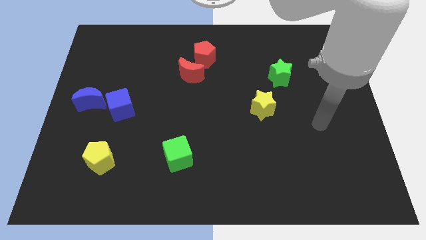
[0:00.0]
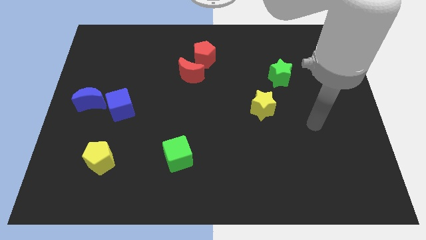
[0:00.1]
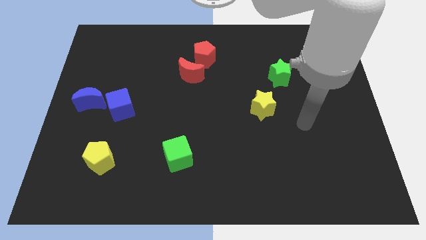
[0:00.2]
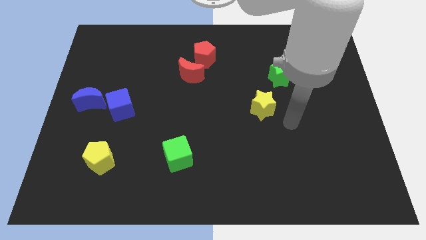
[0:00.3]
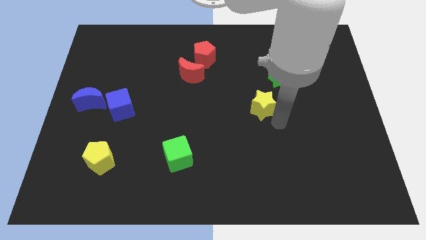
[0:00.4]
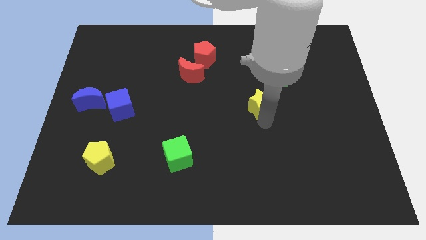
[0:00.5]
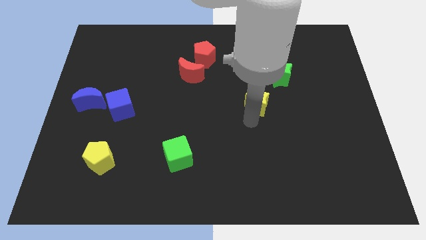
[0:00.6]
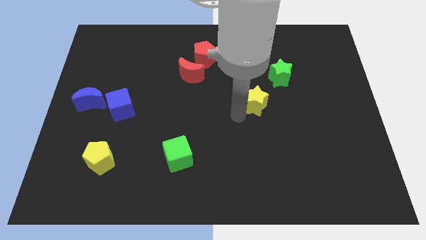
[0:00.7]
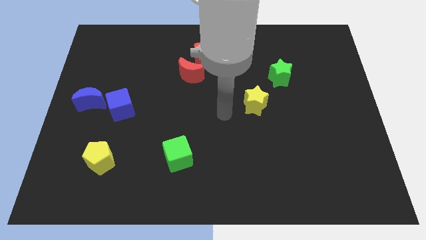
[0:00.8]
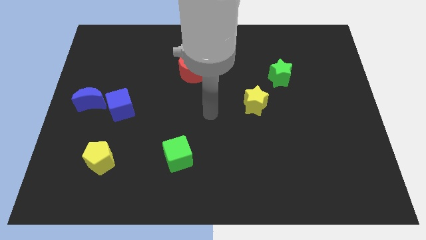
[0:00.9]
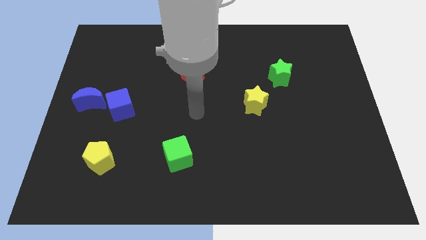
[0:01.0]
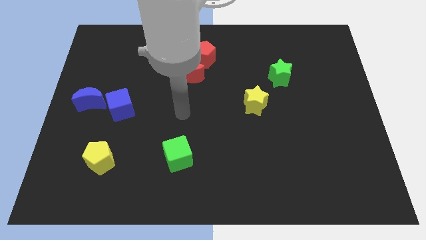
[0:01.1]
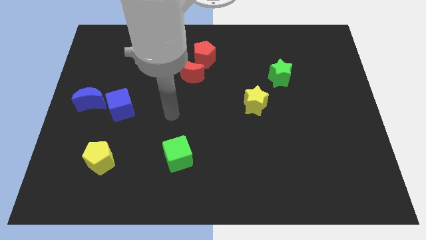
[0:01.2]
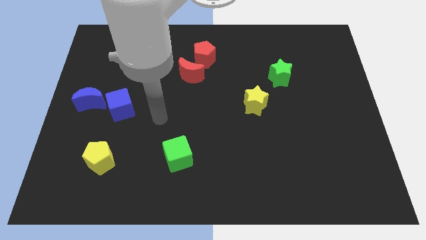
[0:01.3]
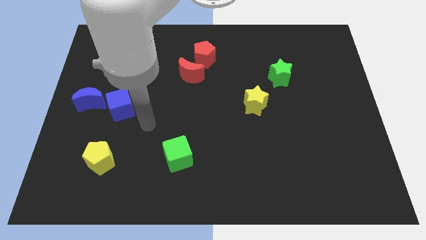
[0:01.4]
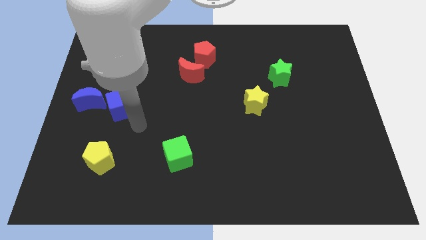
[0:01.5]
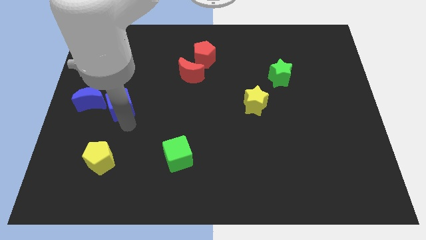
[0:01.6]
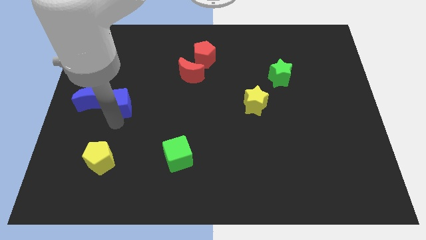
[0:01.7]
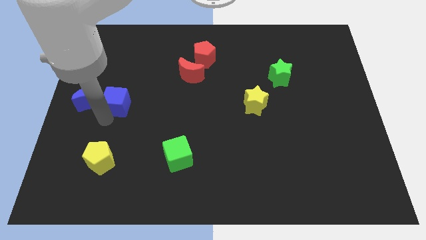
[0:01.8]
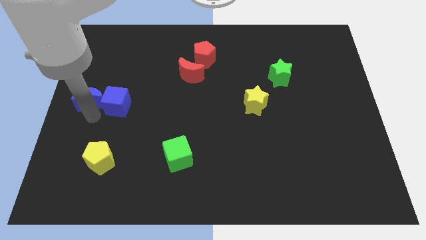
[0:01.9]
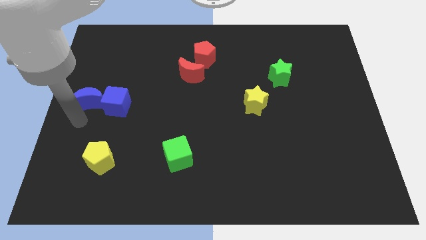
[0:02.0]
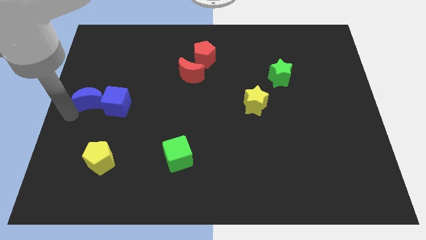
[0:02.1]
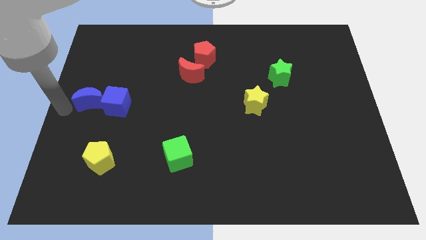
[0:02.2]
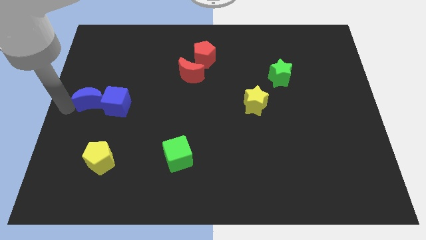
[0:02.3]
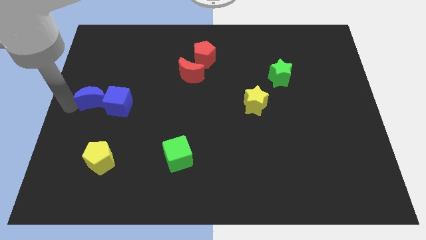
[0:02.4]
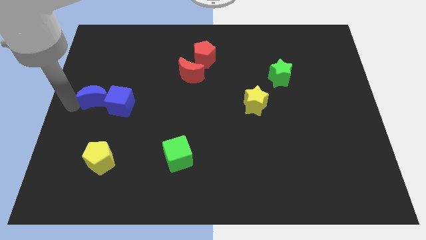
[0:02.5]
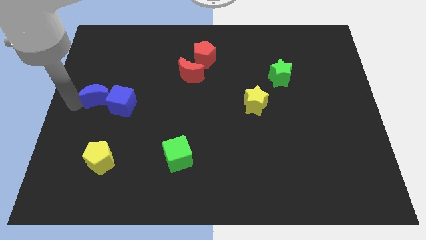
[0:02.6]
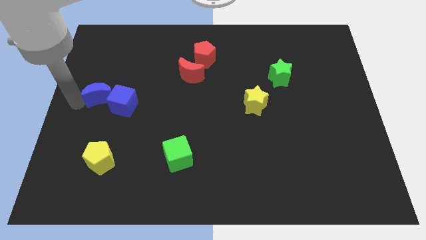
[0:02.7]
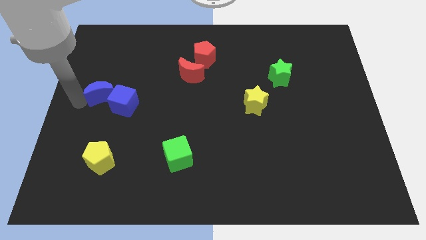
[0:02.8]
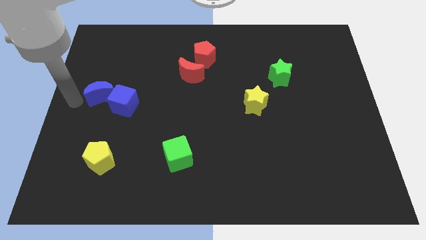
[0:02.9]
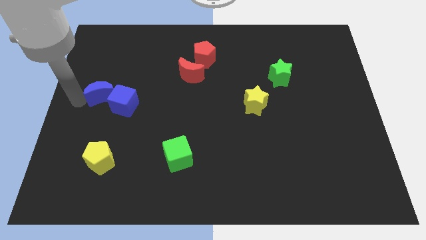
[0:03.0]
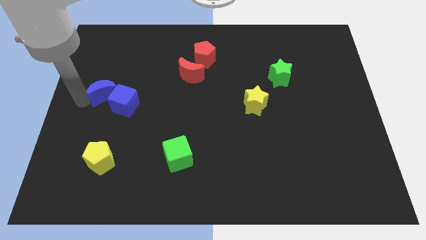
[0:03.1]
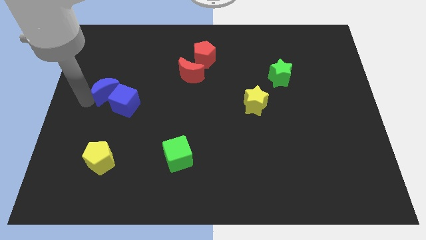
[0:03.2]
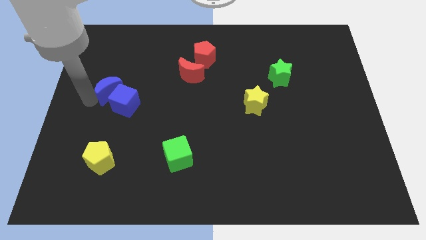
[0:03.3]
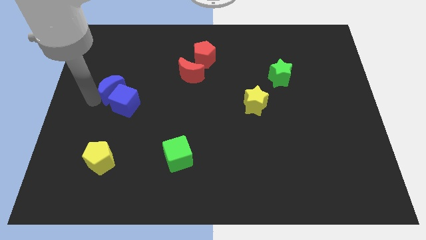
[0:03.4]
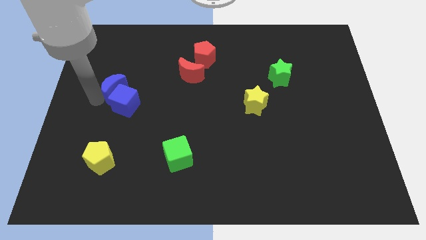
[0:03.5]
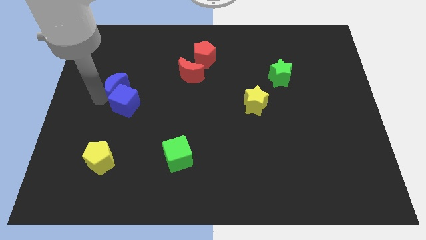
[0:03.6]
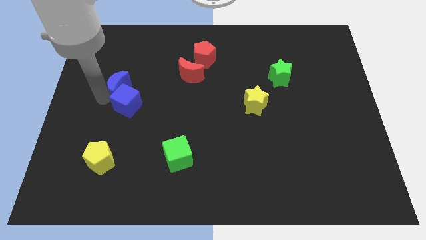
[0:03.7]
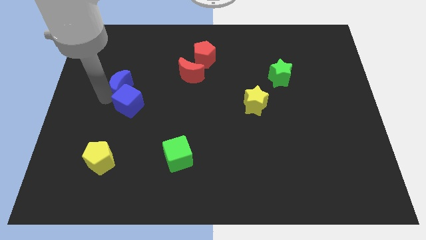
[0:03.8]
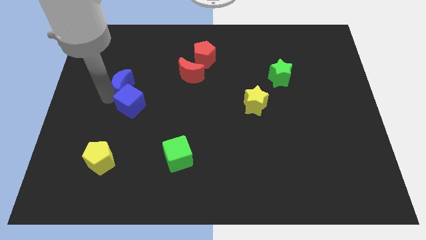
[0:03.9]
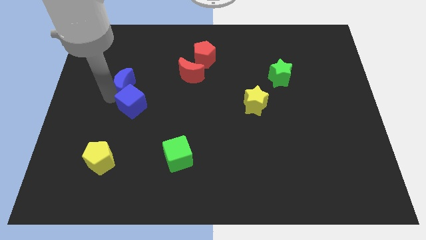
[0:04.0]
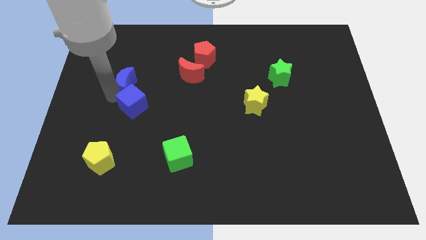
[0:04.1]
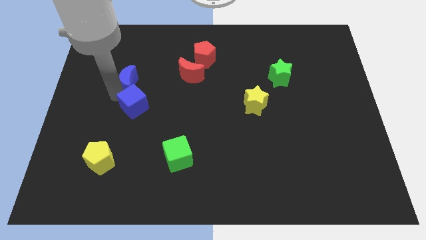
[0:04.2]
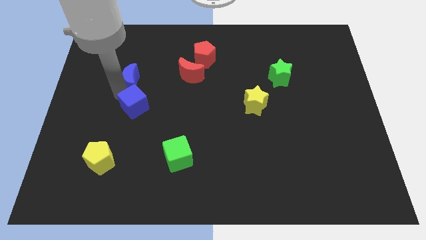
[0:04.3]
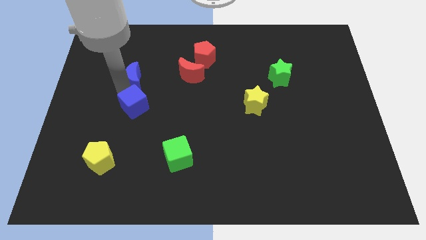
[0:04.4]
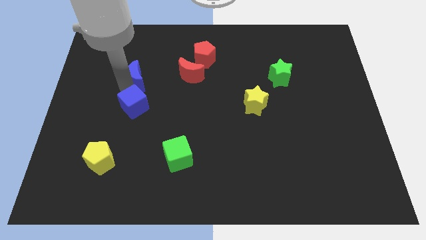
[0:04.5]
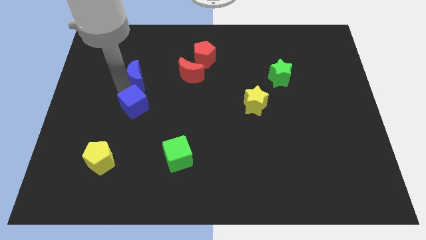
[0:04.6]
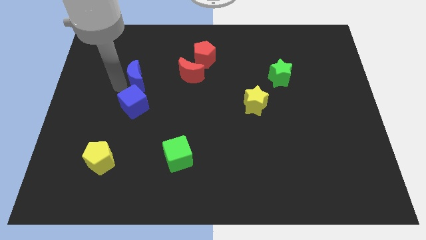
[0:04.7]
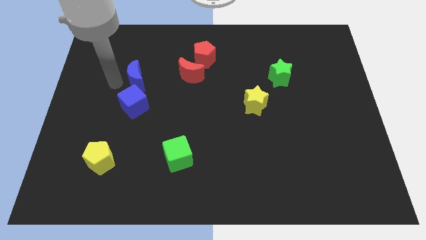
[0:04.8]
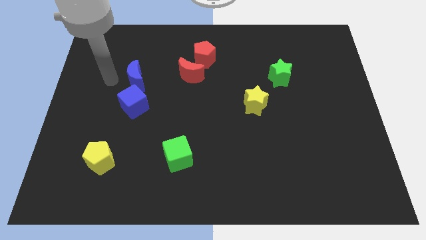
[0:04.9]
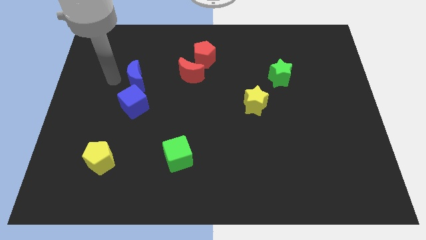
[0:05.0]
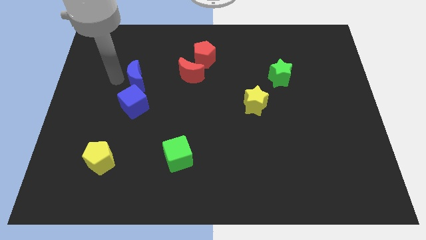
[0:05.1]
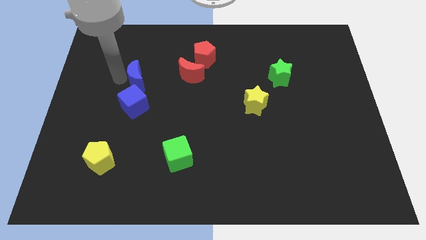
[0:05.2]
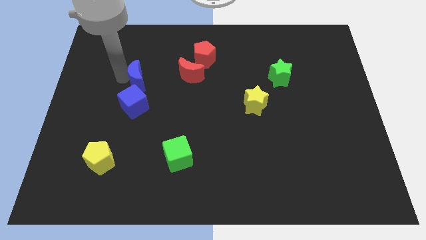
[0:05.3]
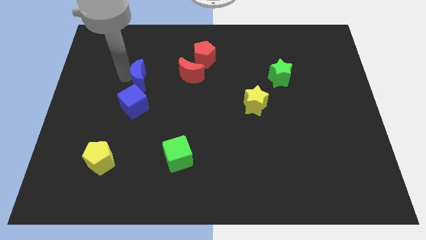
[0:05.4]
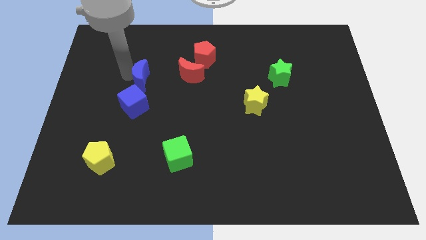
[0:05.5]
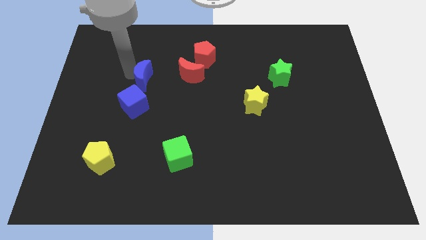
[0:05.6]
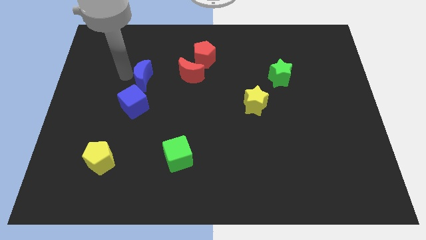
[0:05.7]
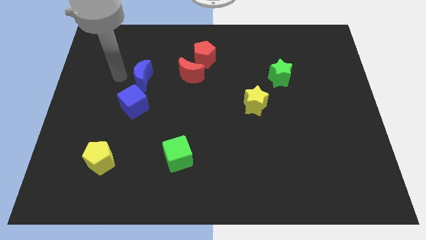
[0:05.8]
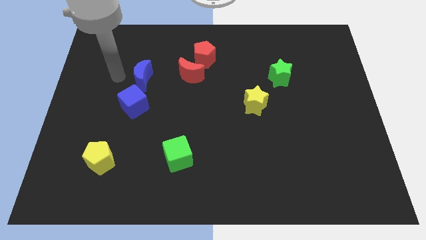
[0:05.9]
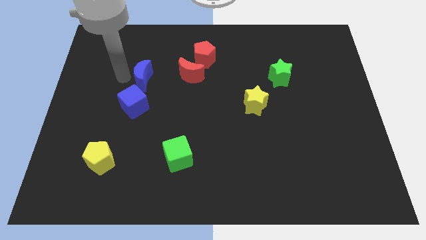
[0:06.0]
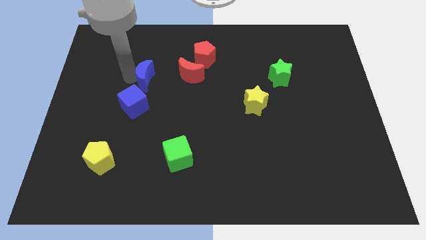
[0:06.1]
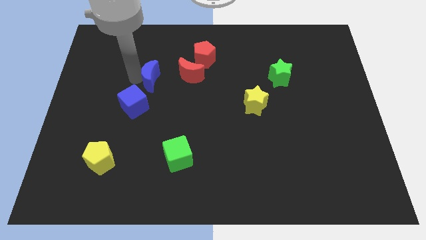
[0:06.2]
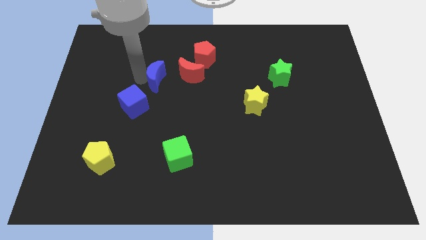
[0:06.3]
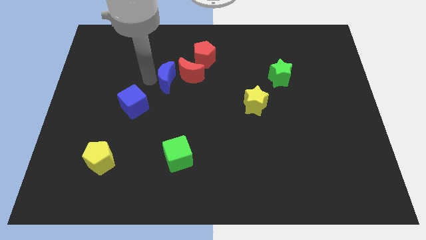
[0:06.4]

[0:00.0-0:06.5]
put the blue moon to the red moon

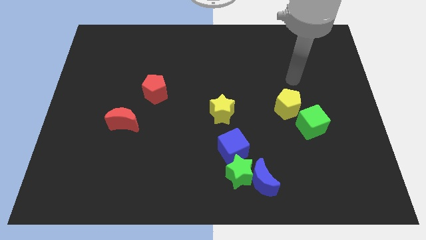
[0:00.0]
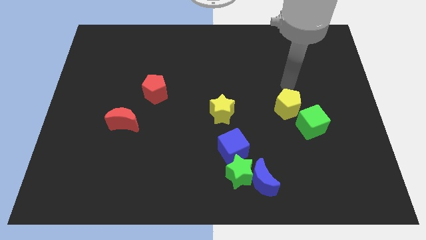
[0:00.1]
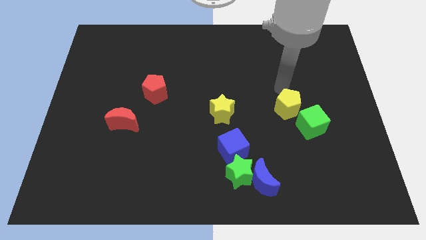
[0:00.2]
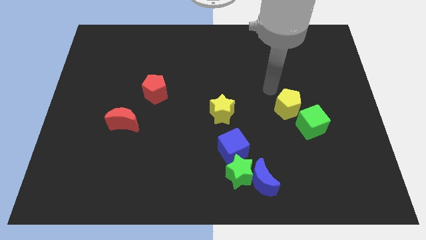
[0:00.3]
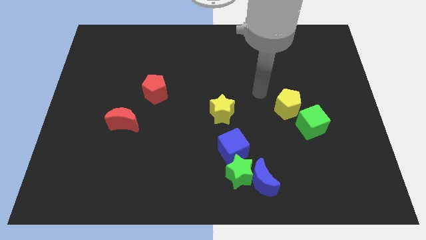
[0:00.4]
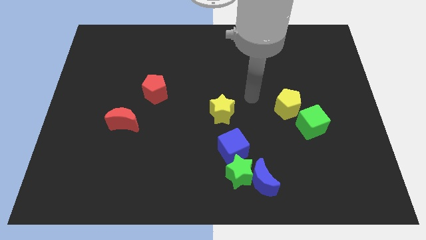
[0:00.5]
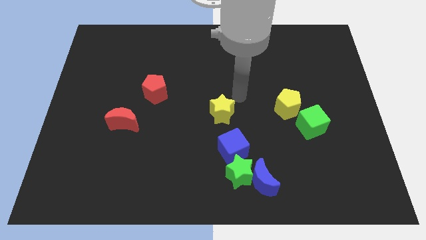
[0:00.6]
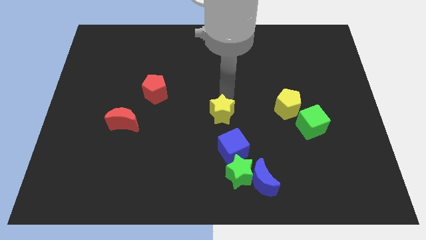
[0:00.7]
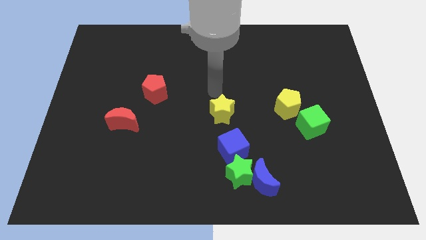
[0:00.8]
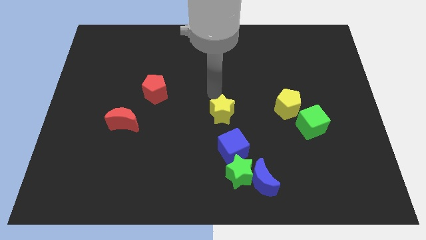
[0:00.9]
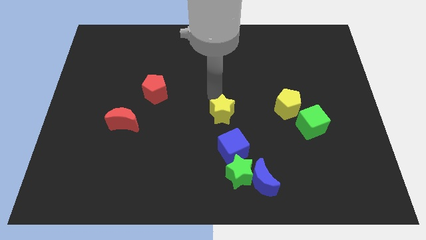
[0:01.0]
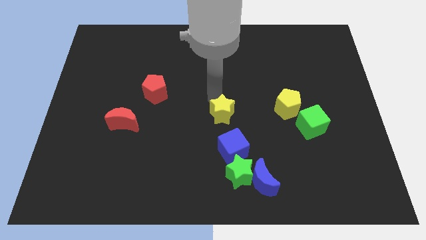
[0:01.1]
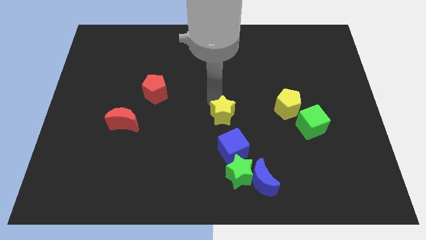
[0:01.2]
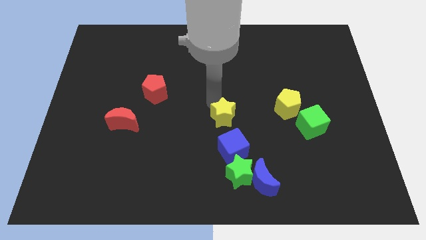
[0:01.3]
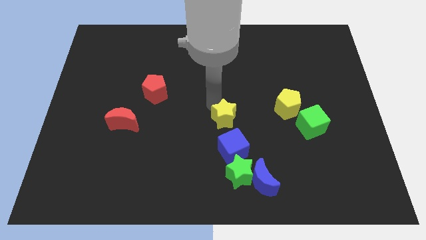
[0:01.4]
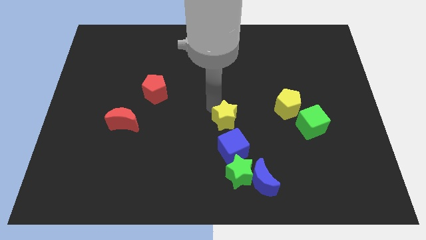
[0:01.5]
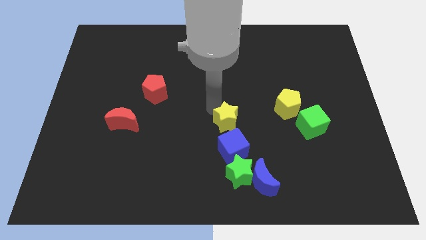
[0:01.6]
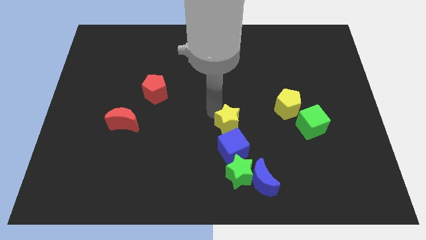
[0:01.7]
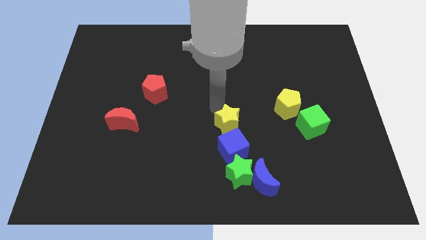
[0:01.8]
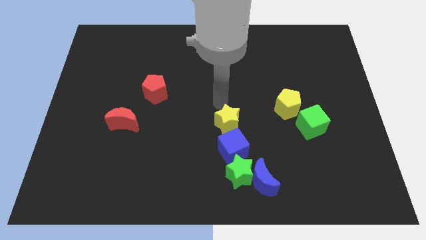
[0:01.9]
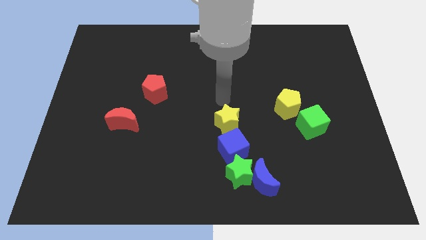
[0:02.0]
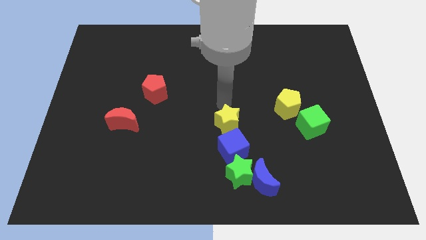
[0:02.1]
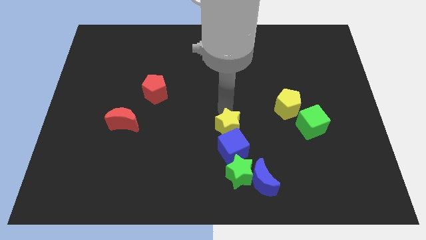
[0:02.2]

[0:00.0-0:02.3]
slide the yellow star to the blue cube
